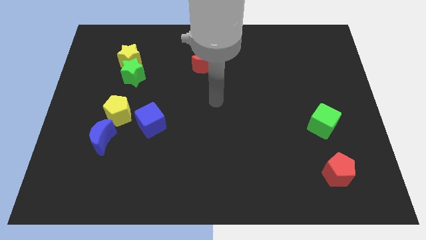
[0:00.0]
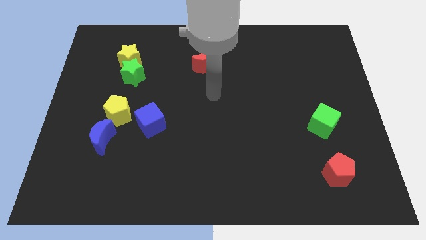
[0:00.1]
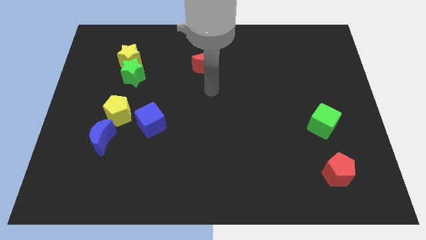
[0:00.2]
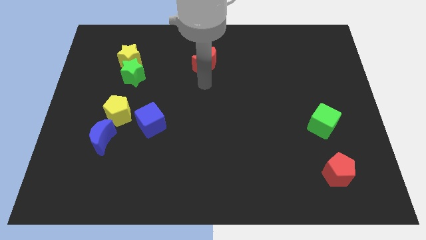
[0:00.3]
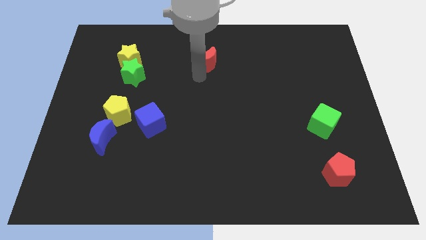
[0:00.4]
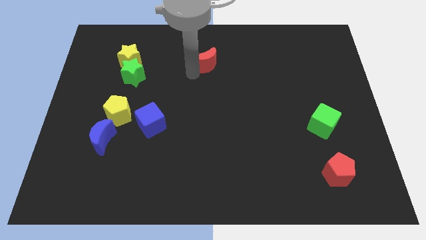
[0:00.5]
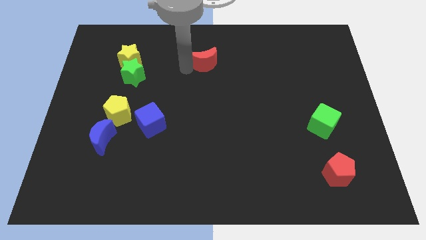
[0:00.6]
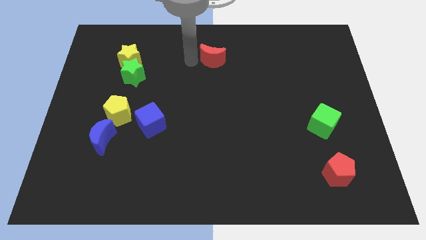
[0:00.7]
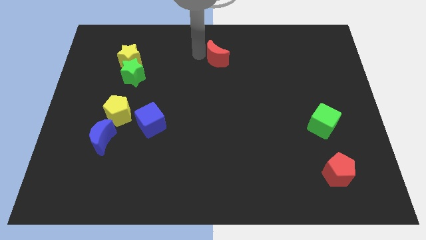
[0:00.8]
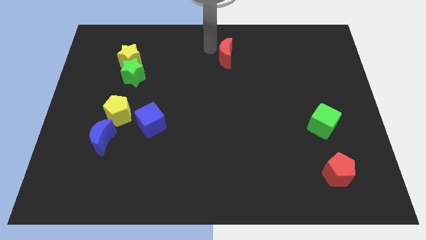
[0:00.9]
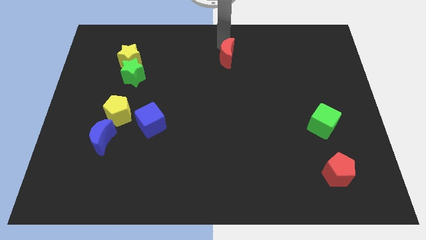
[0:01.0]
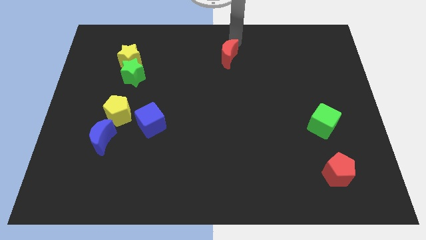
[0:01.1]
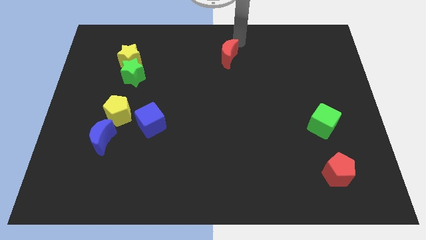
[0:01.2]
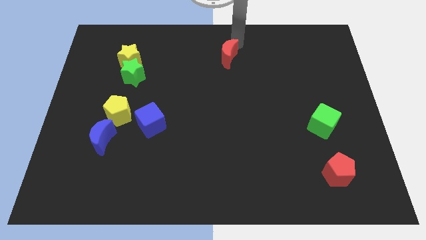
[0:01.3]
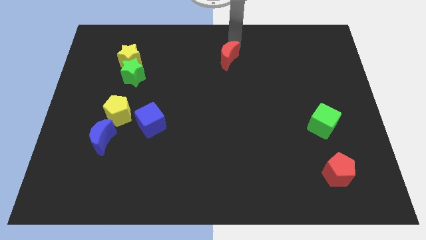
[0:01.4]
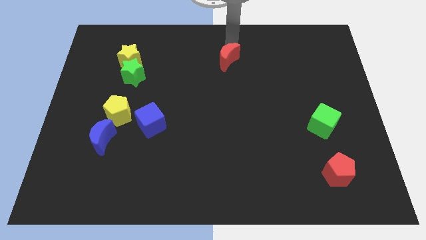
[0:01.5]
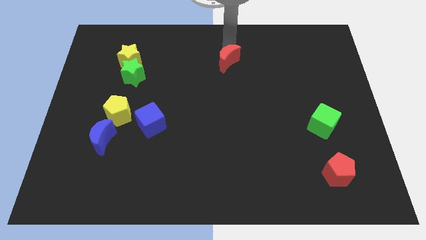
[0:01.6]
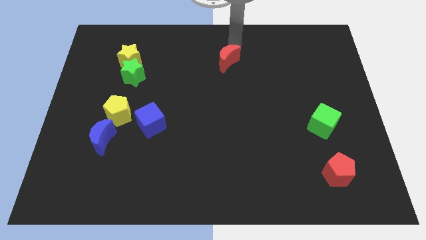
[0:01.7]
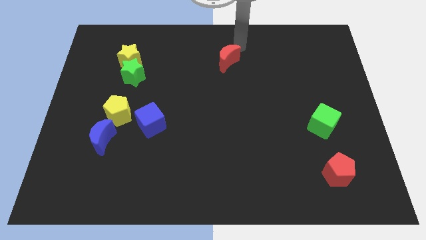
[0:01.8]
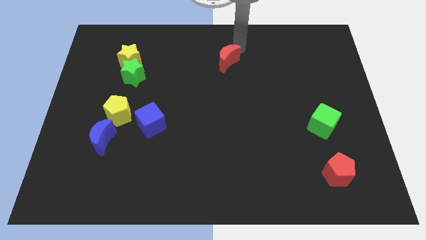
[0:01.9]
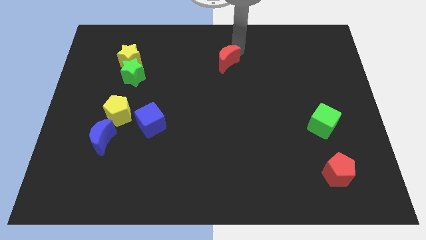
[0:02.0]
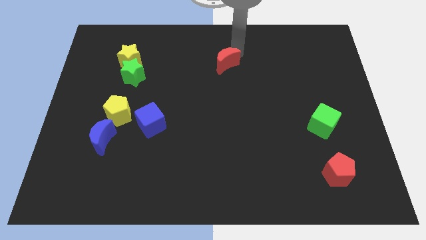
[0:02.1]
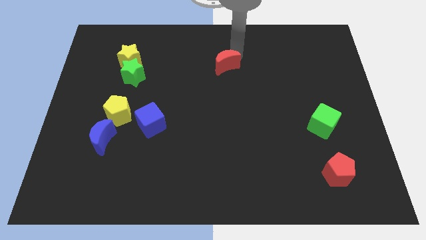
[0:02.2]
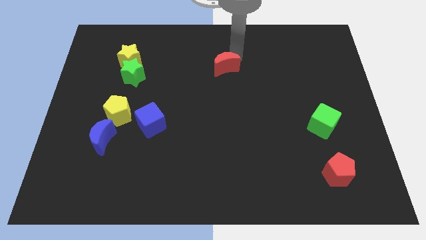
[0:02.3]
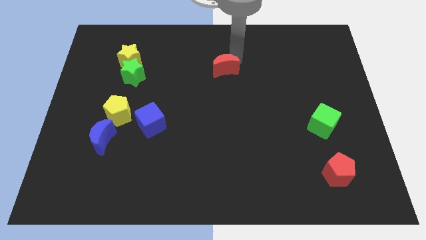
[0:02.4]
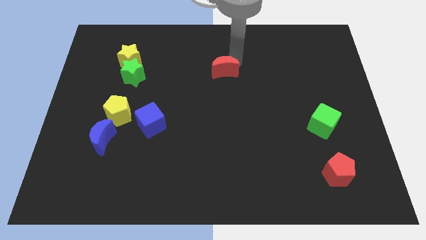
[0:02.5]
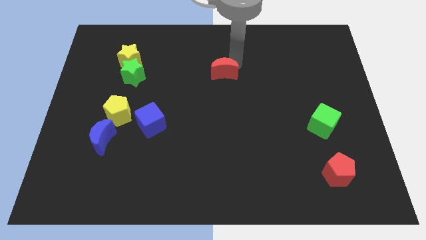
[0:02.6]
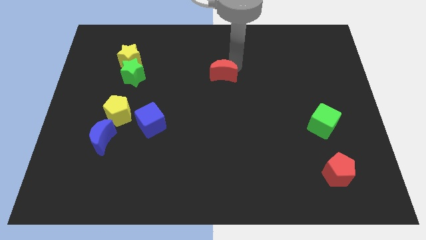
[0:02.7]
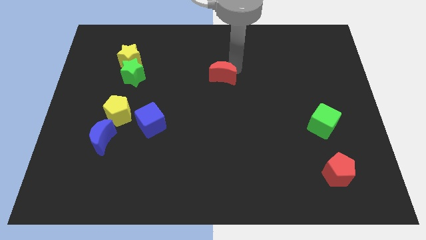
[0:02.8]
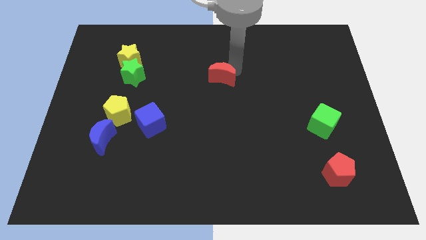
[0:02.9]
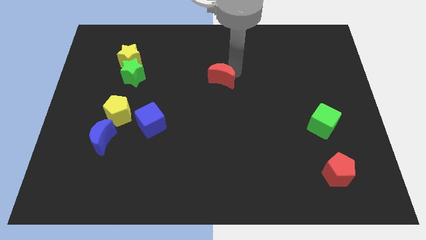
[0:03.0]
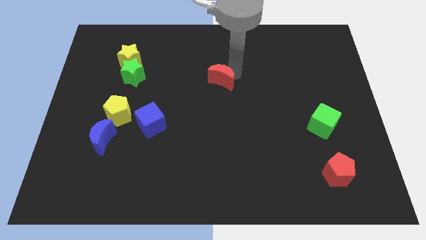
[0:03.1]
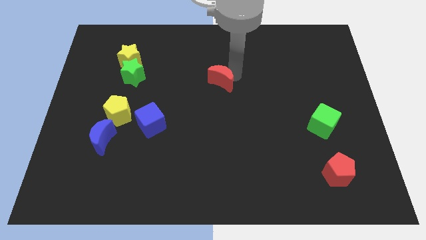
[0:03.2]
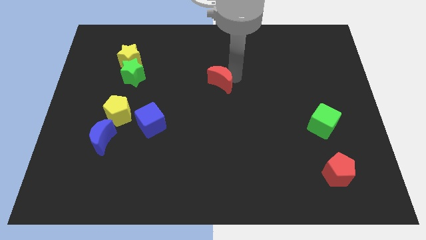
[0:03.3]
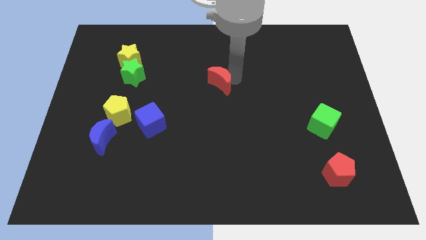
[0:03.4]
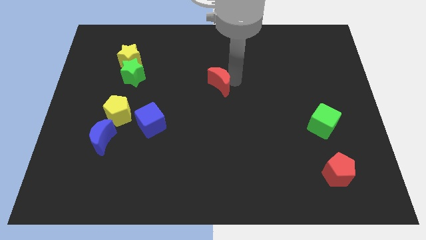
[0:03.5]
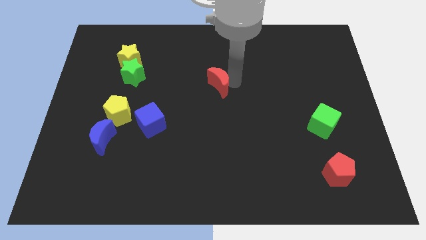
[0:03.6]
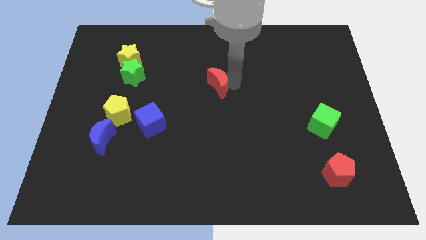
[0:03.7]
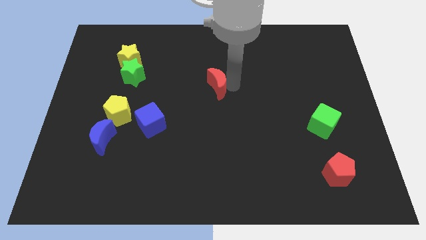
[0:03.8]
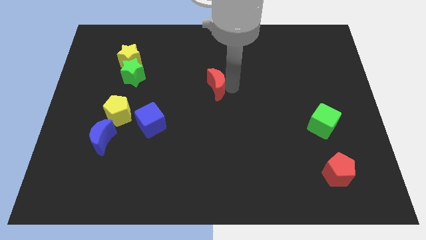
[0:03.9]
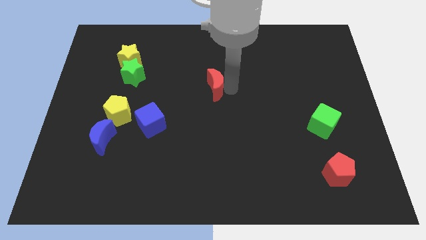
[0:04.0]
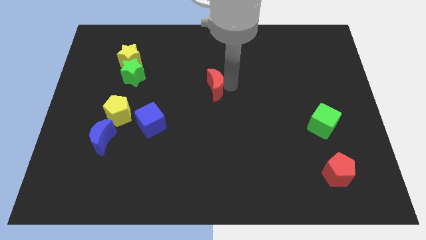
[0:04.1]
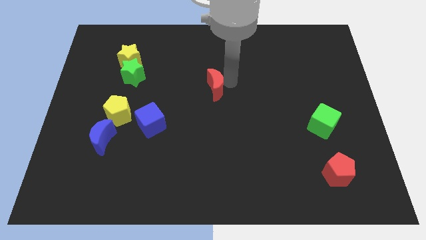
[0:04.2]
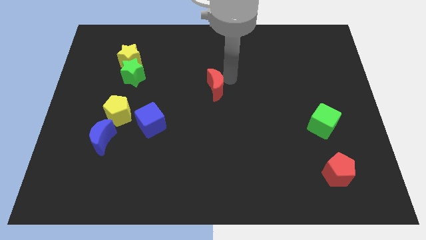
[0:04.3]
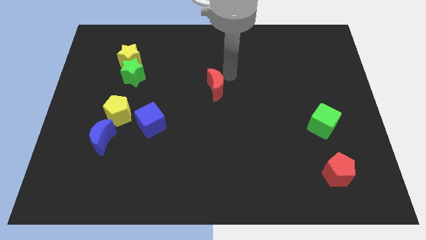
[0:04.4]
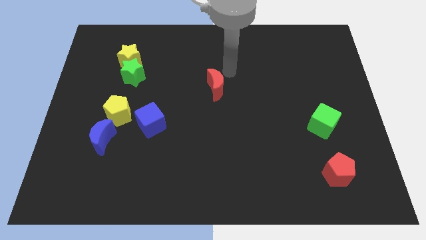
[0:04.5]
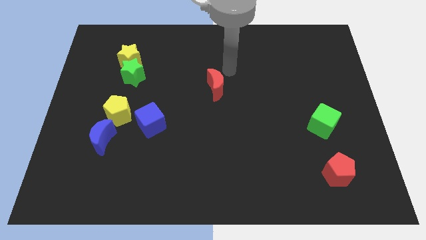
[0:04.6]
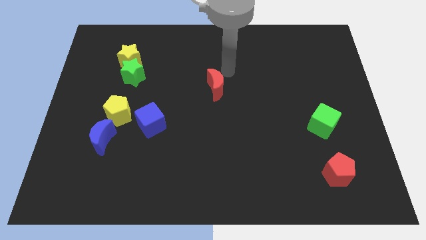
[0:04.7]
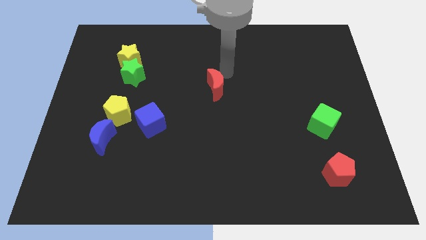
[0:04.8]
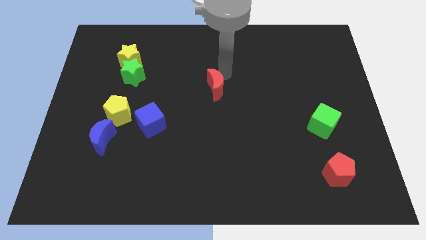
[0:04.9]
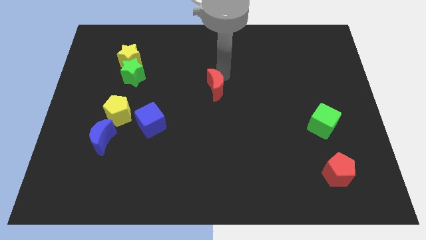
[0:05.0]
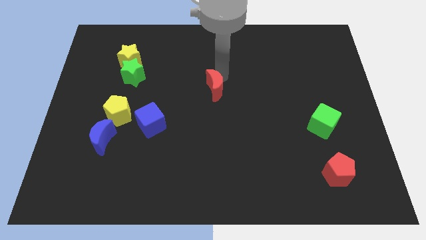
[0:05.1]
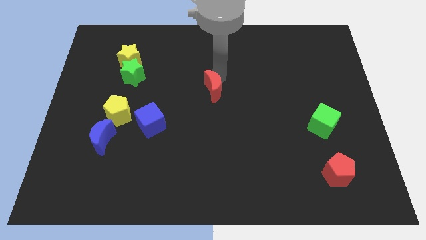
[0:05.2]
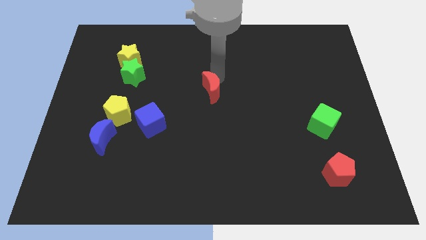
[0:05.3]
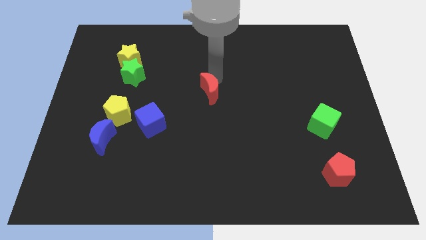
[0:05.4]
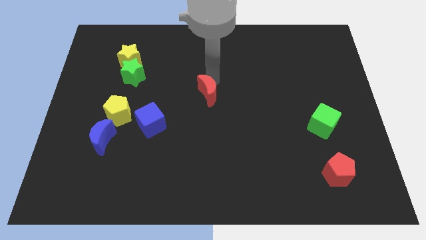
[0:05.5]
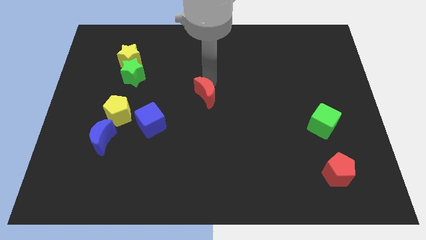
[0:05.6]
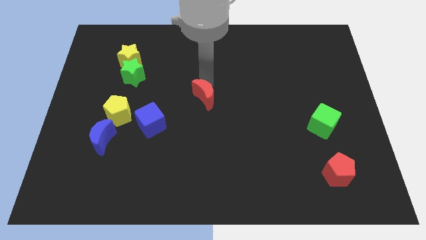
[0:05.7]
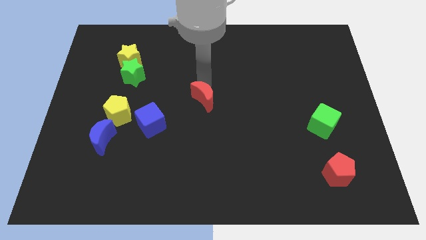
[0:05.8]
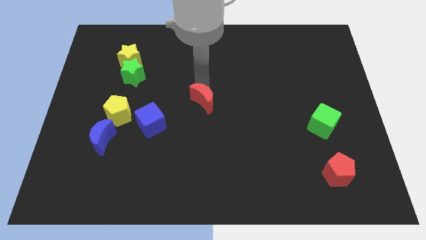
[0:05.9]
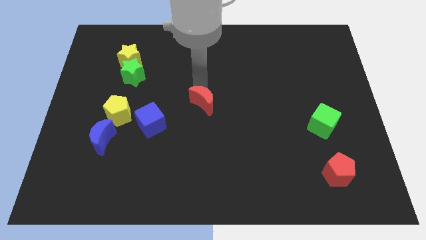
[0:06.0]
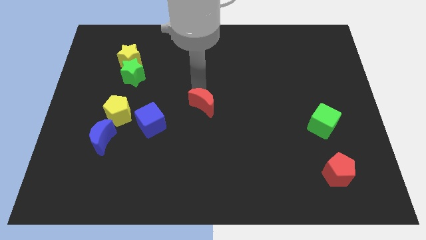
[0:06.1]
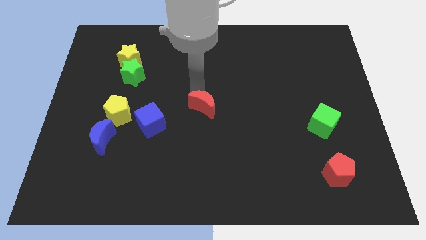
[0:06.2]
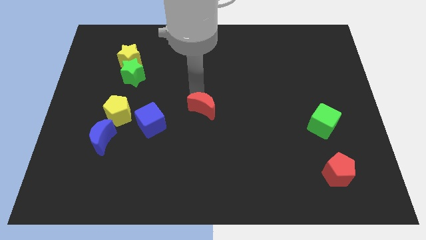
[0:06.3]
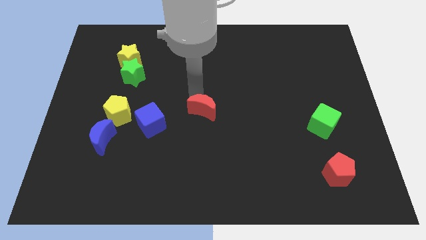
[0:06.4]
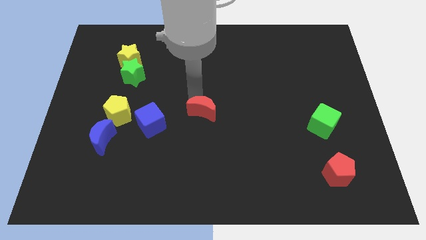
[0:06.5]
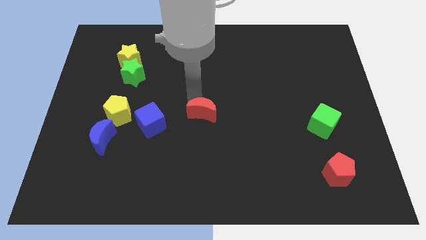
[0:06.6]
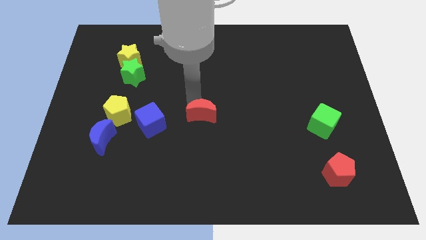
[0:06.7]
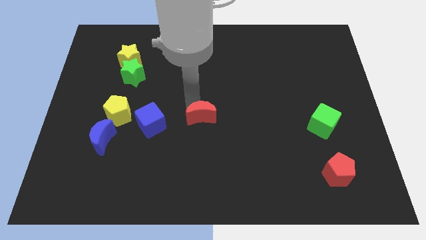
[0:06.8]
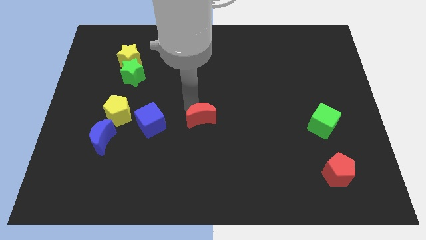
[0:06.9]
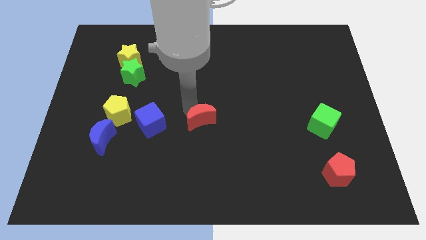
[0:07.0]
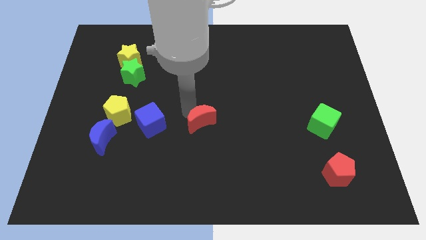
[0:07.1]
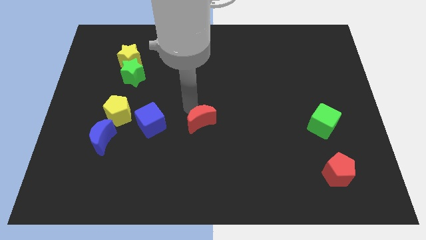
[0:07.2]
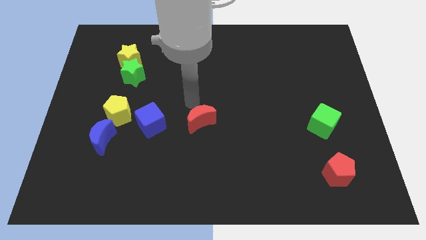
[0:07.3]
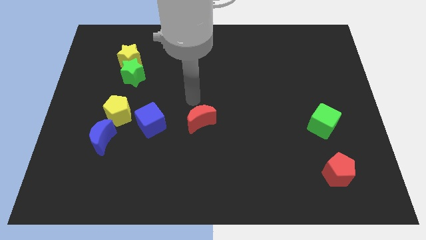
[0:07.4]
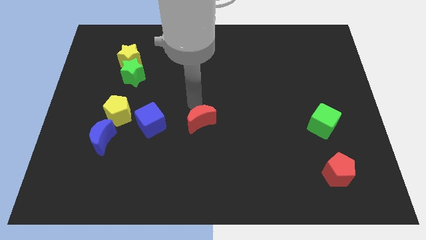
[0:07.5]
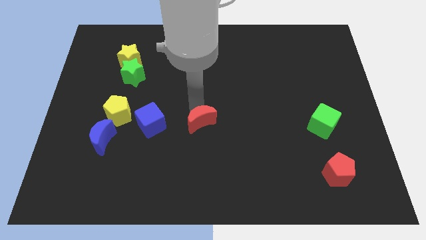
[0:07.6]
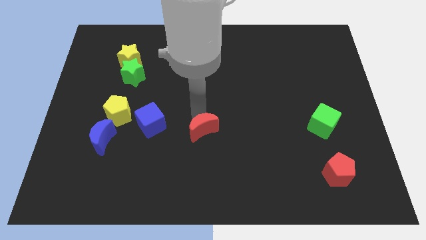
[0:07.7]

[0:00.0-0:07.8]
slide the red moon downwards

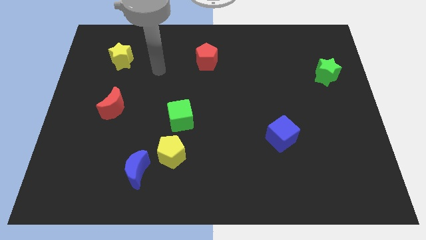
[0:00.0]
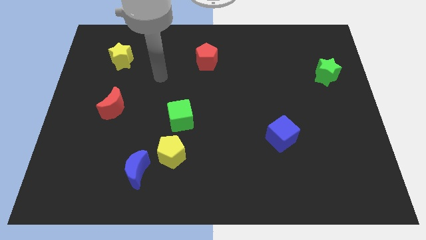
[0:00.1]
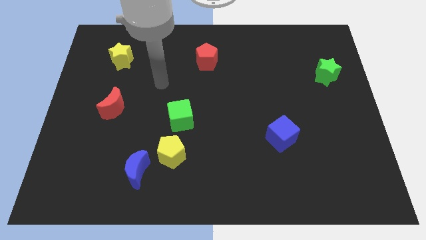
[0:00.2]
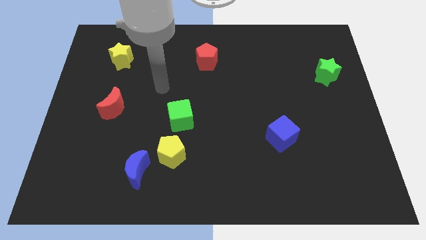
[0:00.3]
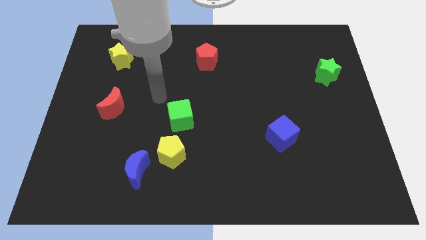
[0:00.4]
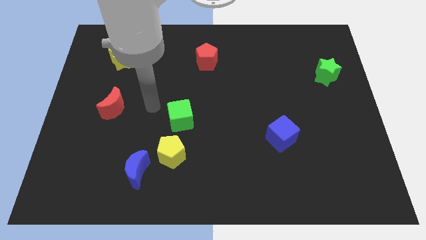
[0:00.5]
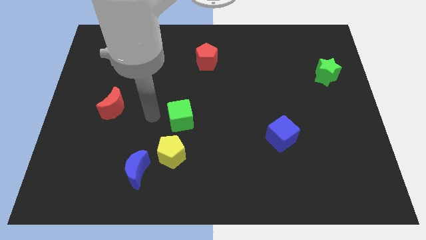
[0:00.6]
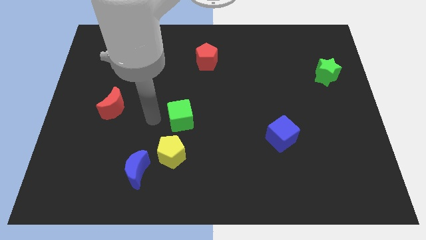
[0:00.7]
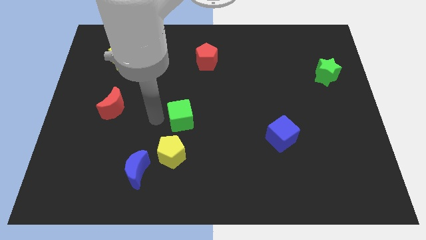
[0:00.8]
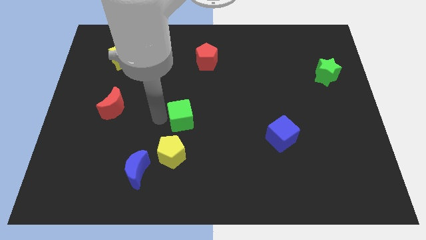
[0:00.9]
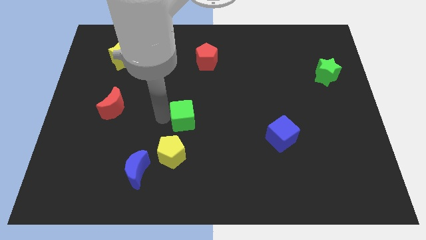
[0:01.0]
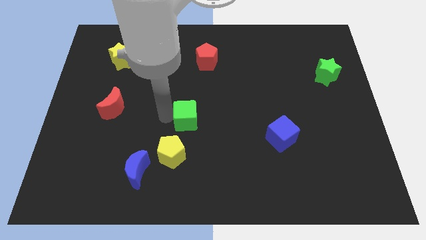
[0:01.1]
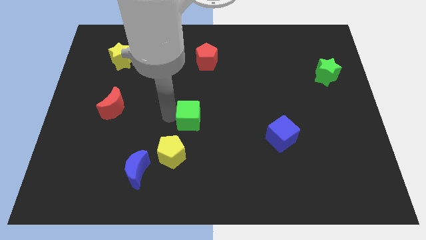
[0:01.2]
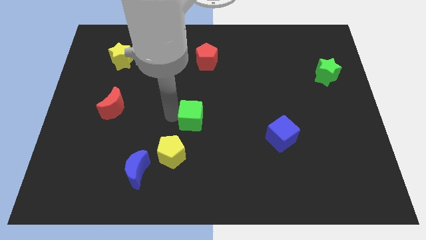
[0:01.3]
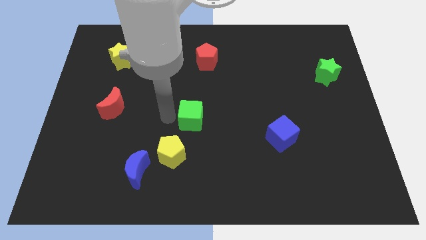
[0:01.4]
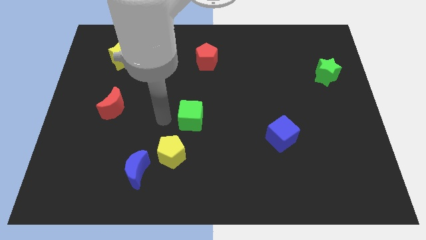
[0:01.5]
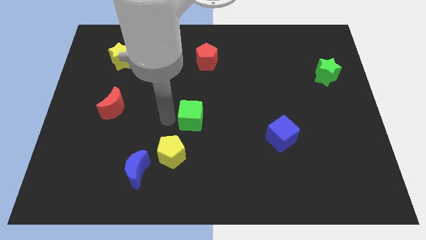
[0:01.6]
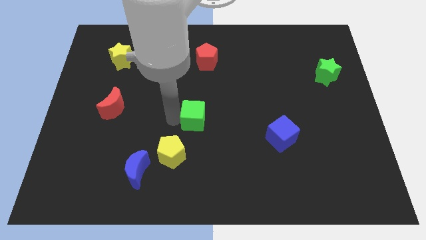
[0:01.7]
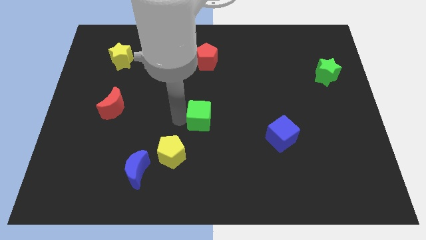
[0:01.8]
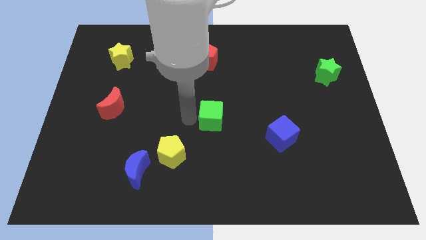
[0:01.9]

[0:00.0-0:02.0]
slightly slide the green cube right
